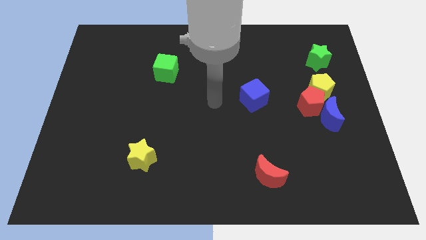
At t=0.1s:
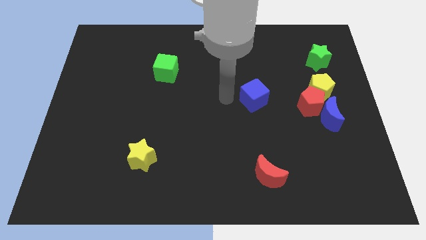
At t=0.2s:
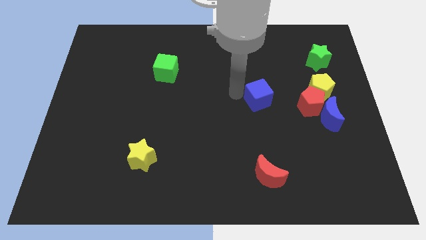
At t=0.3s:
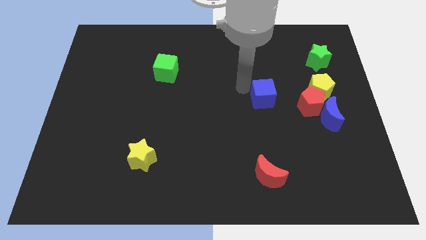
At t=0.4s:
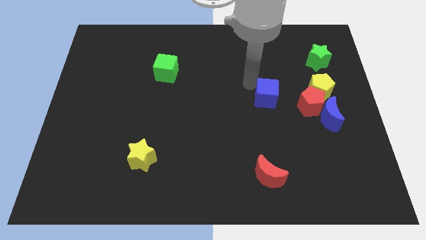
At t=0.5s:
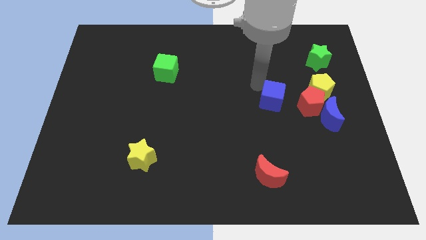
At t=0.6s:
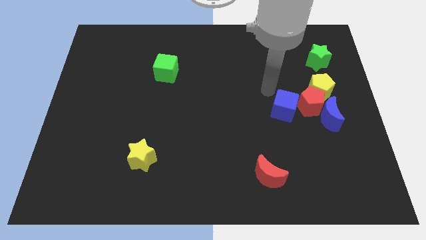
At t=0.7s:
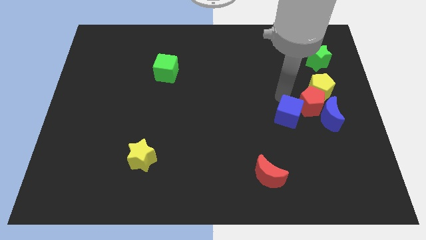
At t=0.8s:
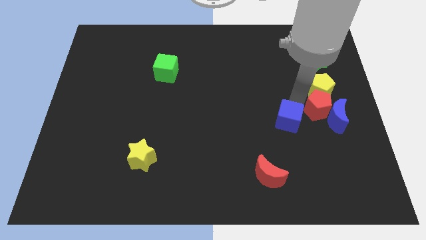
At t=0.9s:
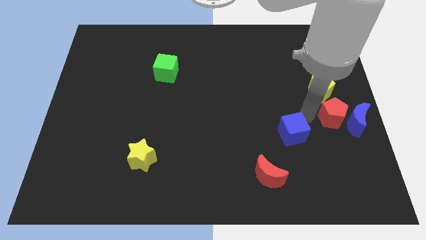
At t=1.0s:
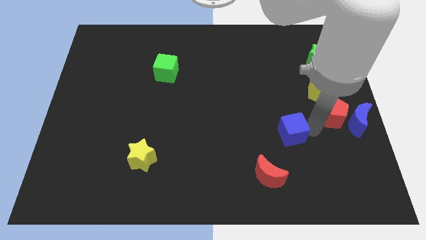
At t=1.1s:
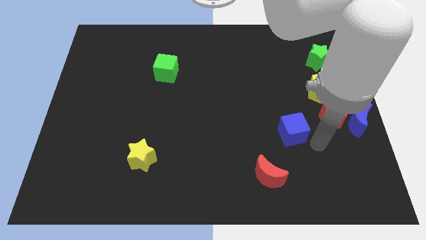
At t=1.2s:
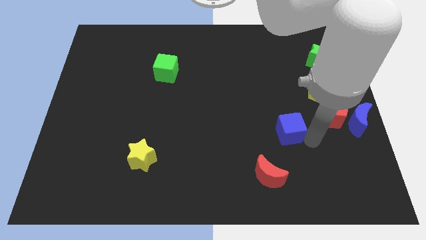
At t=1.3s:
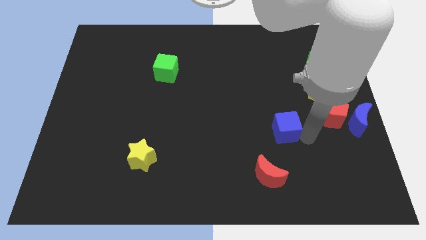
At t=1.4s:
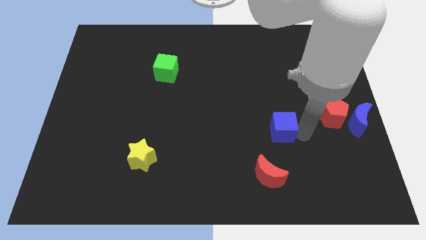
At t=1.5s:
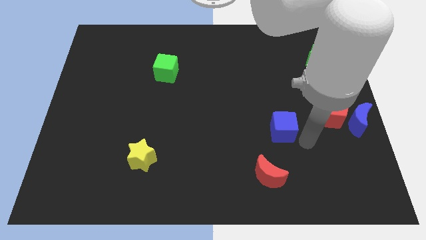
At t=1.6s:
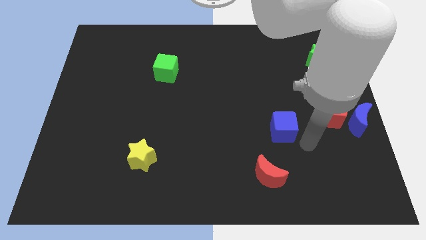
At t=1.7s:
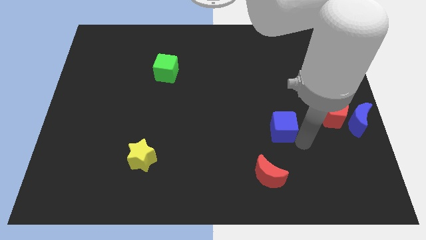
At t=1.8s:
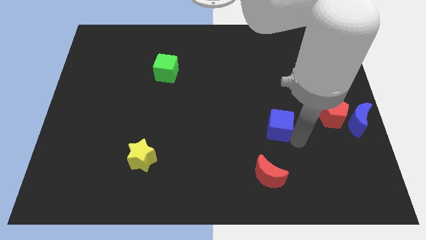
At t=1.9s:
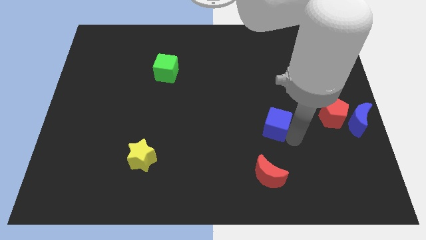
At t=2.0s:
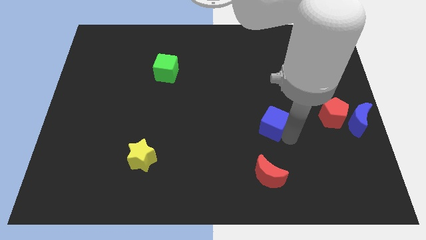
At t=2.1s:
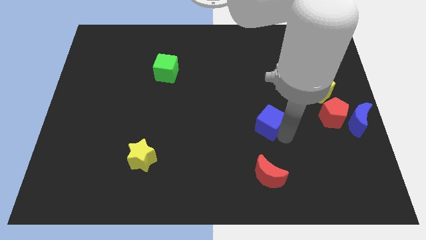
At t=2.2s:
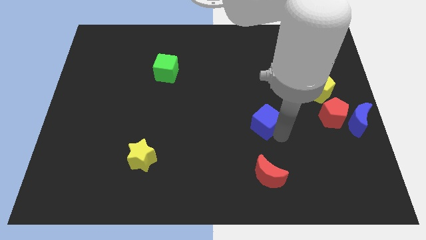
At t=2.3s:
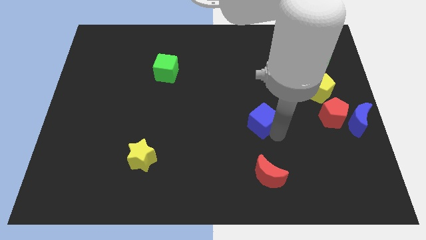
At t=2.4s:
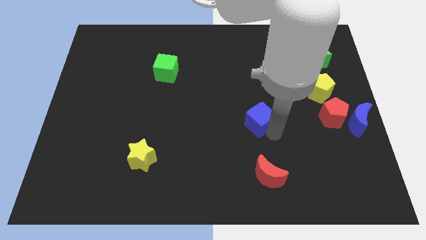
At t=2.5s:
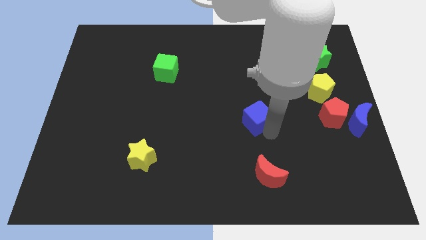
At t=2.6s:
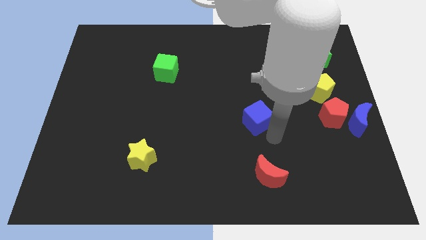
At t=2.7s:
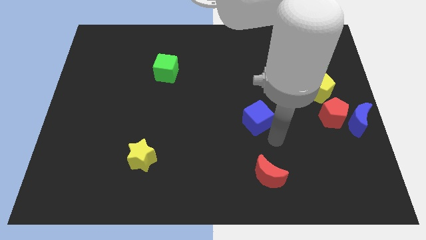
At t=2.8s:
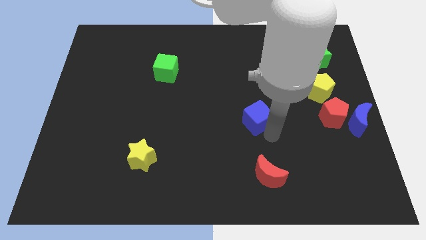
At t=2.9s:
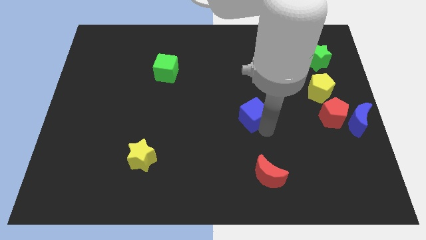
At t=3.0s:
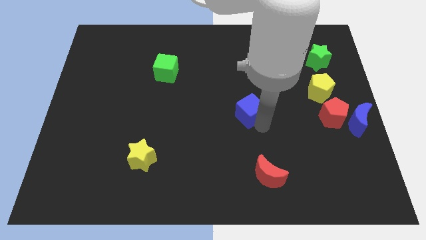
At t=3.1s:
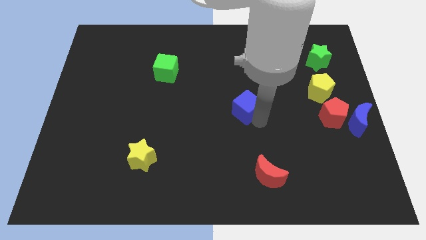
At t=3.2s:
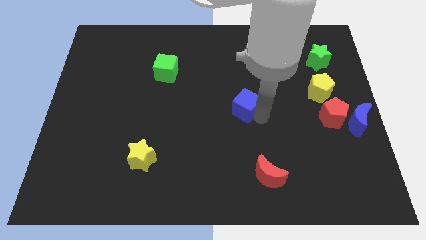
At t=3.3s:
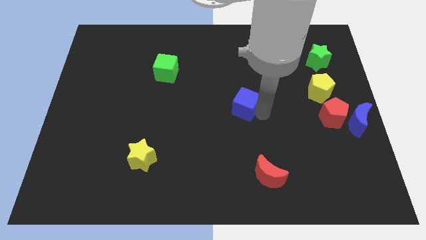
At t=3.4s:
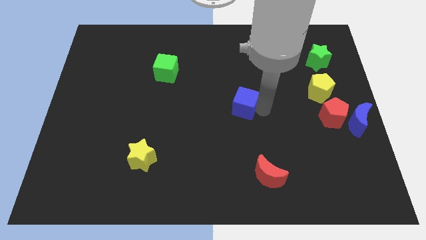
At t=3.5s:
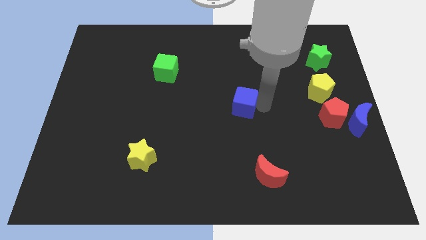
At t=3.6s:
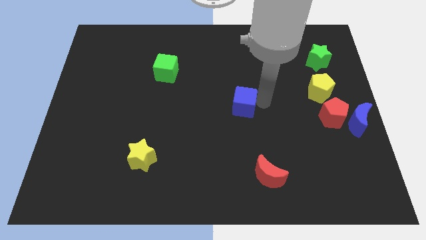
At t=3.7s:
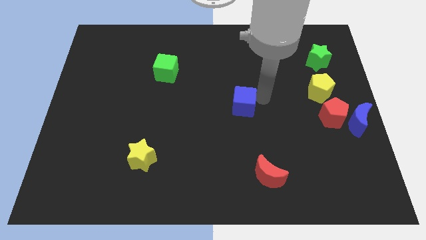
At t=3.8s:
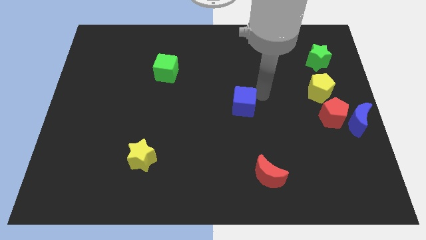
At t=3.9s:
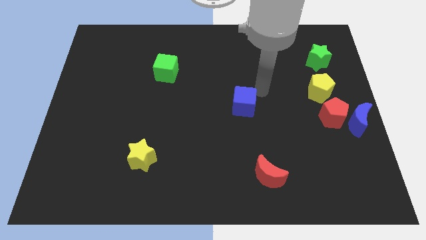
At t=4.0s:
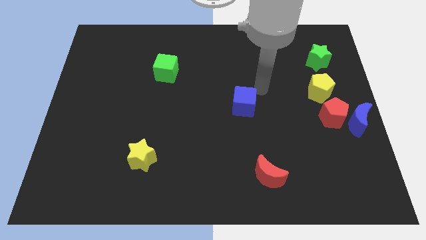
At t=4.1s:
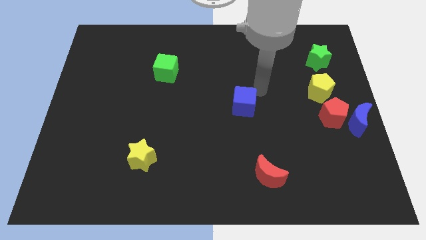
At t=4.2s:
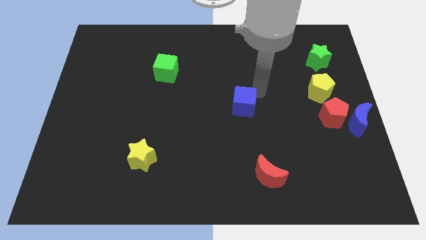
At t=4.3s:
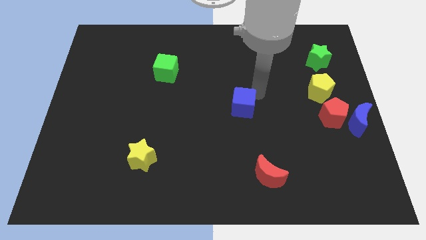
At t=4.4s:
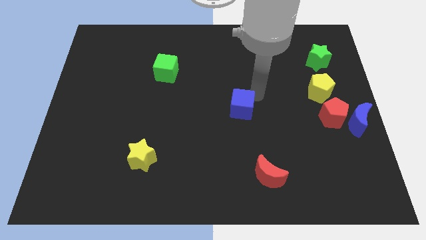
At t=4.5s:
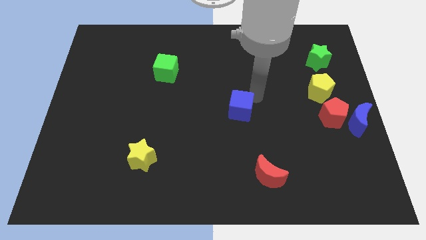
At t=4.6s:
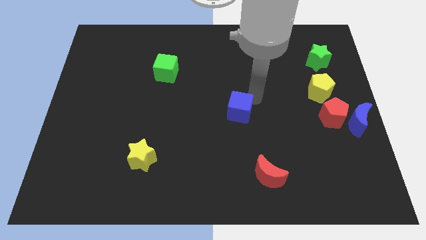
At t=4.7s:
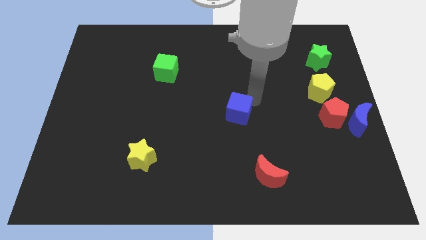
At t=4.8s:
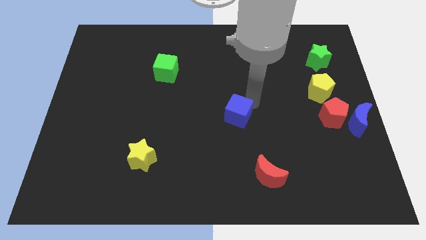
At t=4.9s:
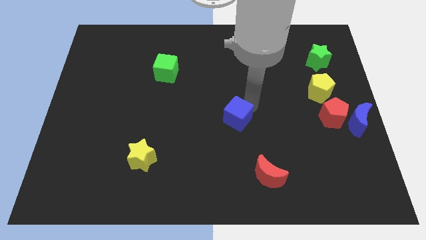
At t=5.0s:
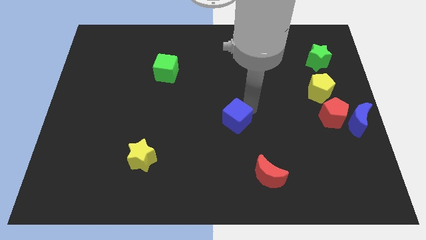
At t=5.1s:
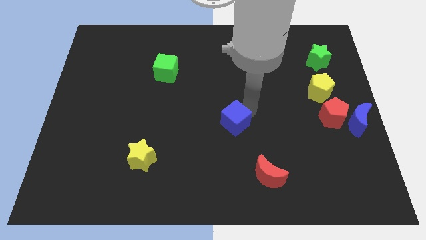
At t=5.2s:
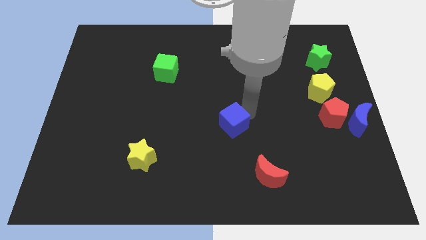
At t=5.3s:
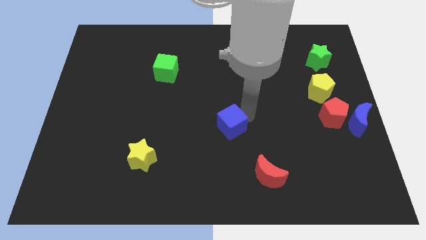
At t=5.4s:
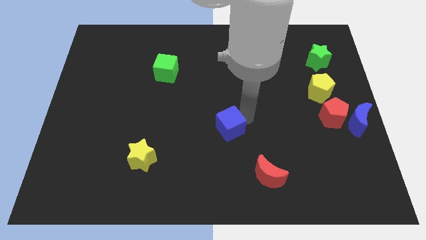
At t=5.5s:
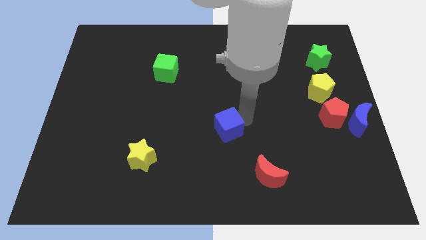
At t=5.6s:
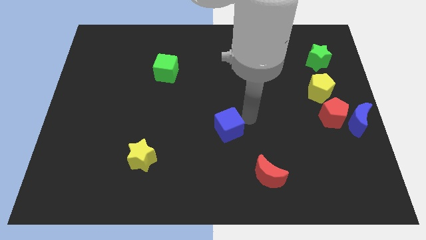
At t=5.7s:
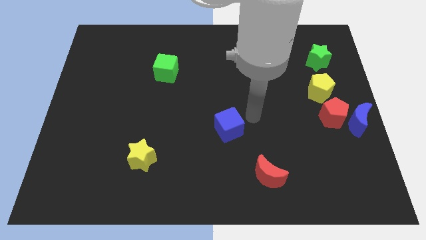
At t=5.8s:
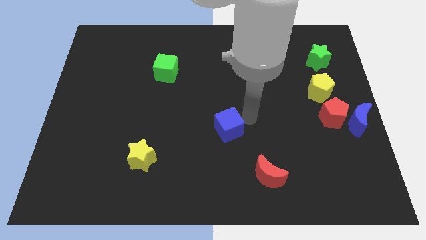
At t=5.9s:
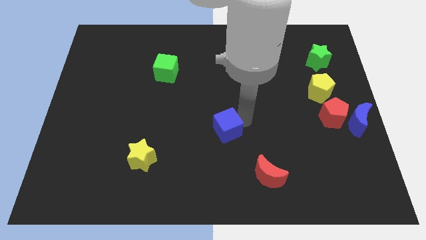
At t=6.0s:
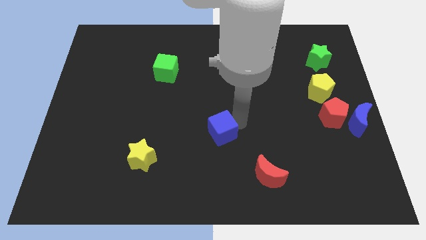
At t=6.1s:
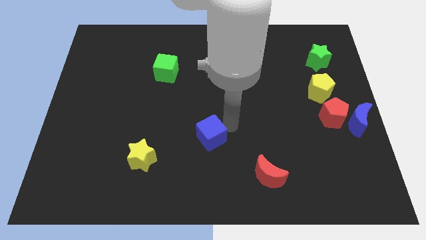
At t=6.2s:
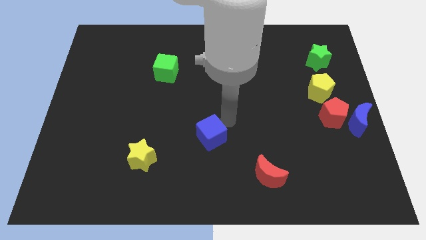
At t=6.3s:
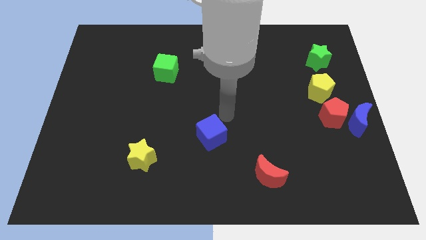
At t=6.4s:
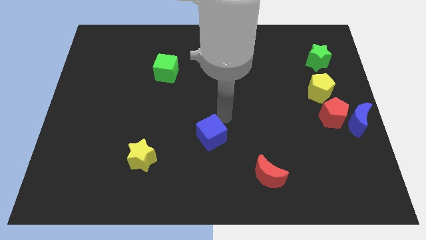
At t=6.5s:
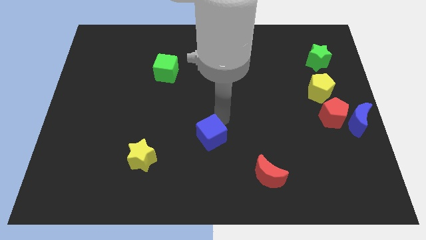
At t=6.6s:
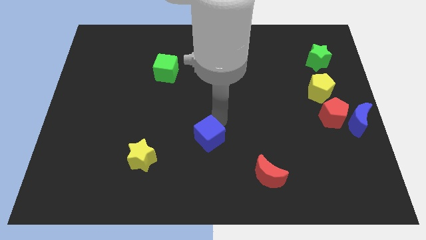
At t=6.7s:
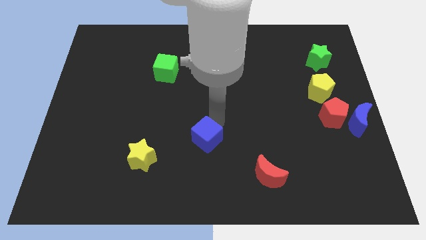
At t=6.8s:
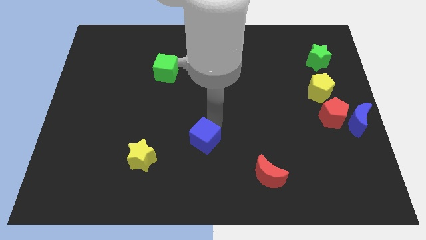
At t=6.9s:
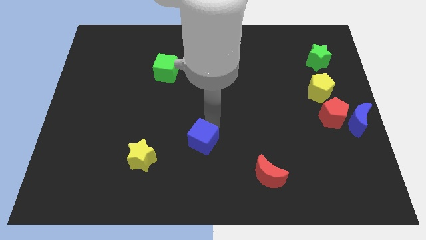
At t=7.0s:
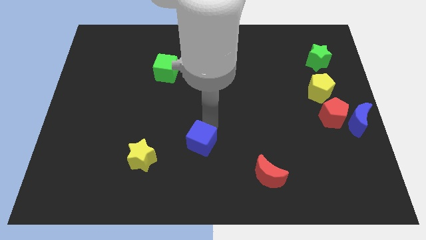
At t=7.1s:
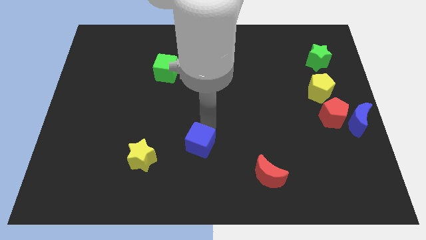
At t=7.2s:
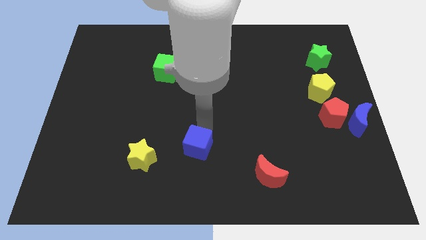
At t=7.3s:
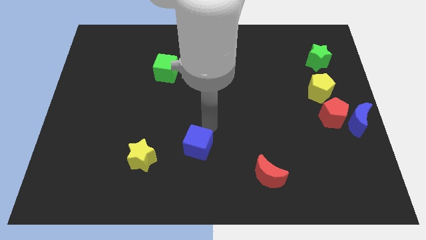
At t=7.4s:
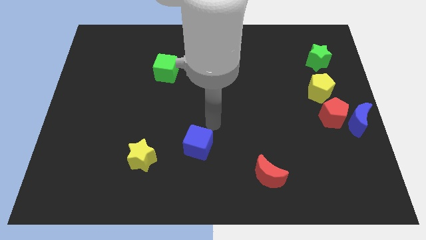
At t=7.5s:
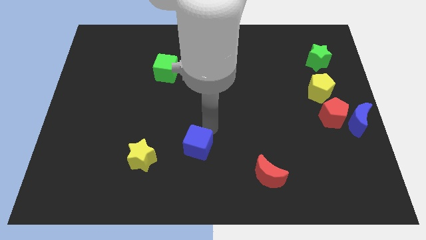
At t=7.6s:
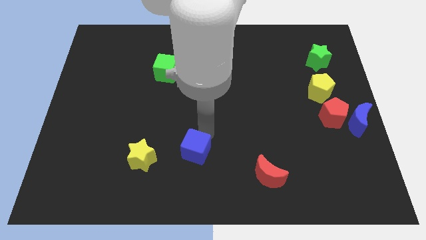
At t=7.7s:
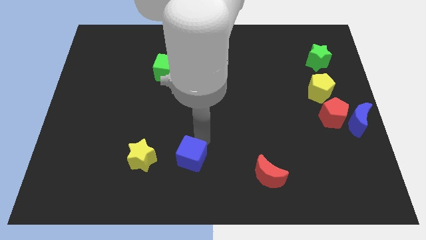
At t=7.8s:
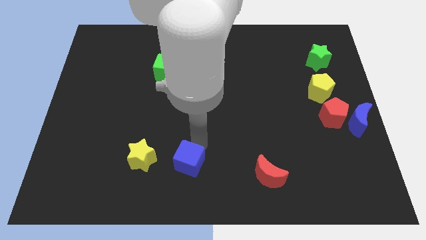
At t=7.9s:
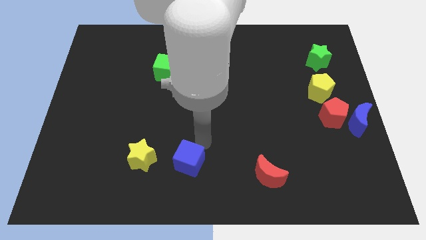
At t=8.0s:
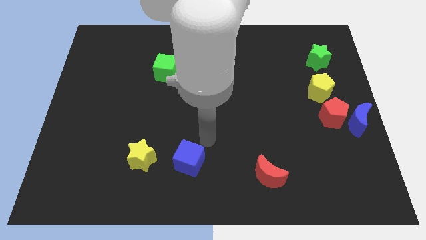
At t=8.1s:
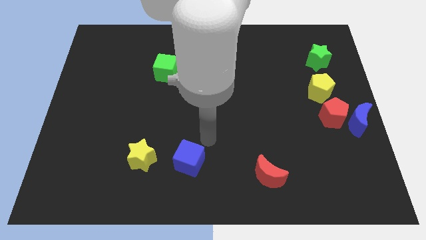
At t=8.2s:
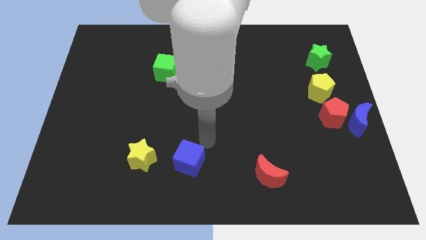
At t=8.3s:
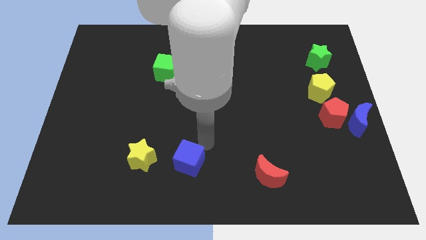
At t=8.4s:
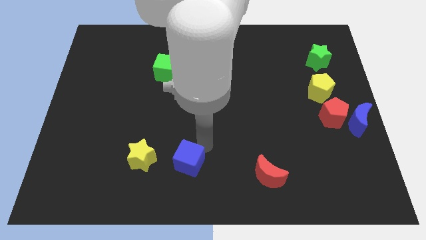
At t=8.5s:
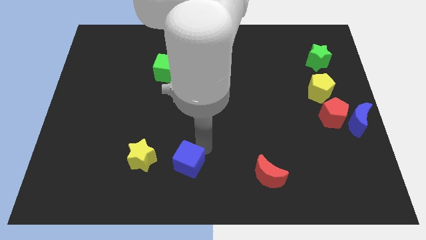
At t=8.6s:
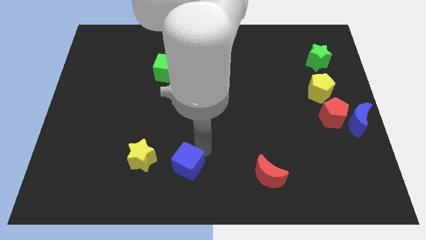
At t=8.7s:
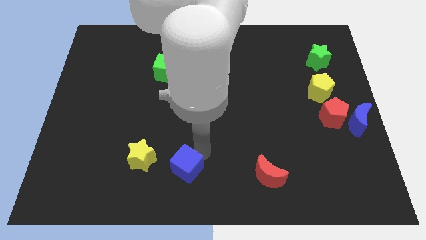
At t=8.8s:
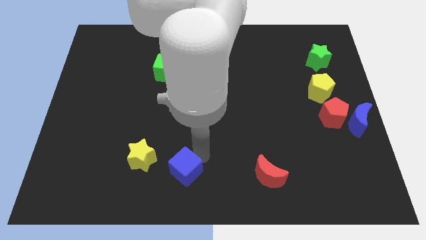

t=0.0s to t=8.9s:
move the blue cube to the bottom right side of the yellow star
